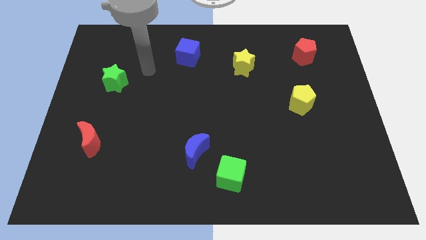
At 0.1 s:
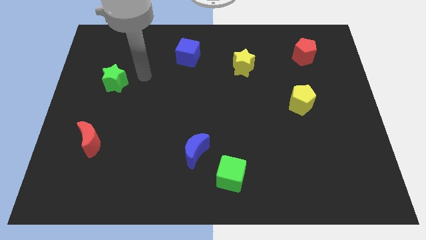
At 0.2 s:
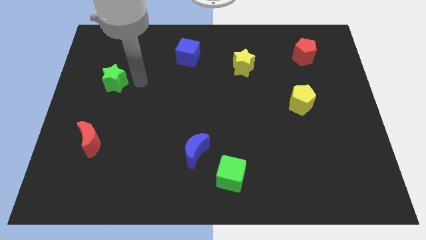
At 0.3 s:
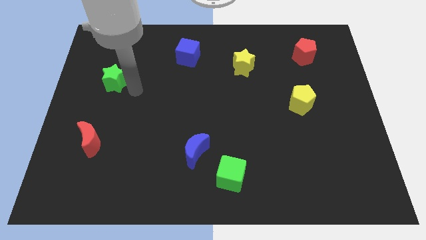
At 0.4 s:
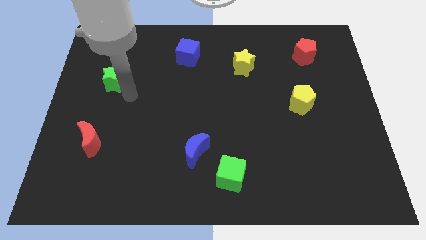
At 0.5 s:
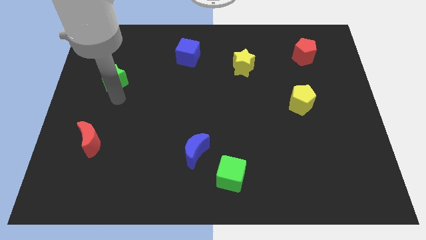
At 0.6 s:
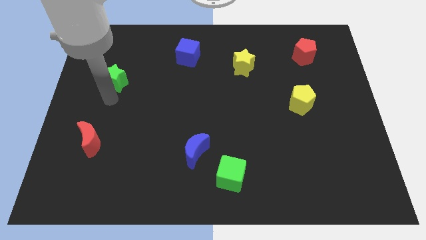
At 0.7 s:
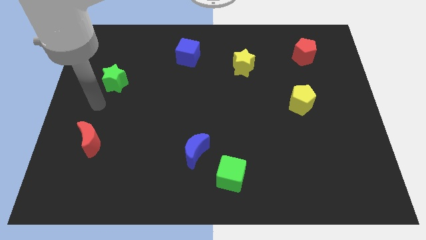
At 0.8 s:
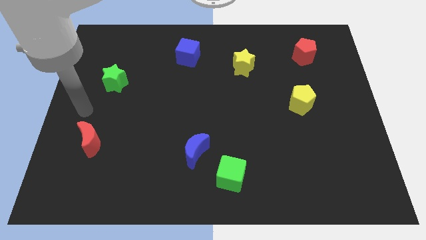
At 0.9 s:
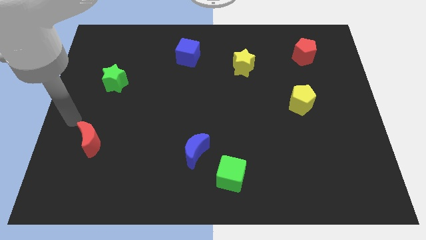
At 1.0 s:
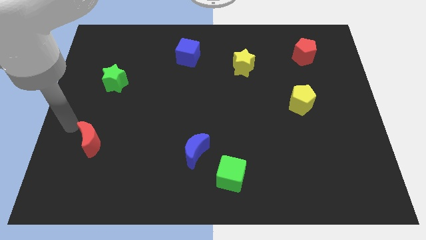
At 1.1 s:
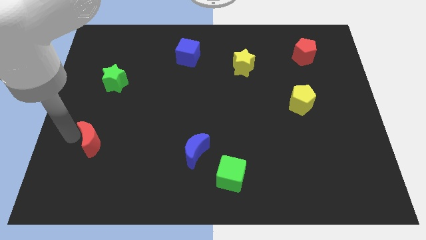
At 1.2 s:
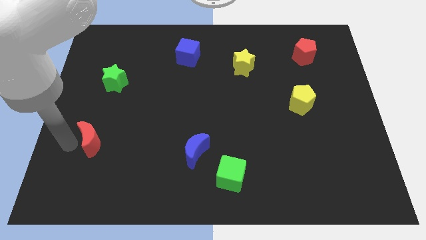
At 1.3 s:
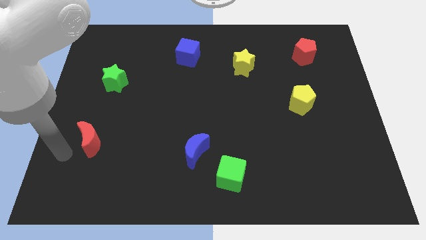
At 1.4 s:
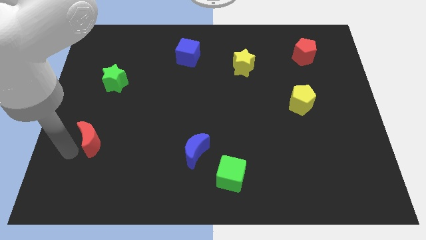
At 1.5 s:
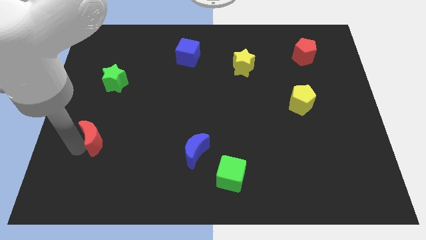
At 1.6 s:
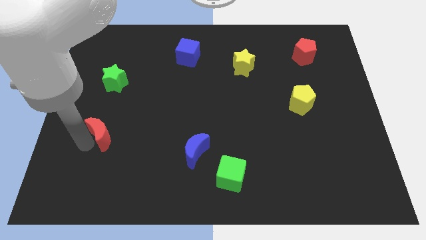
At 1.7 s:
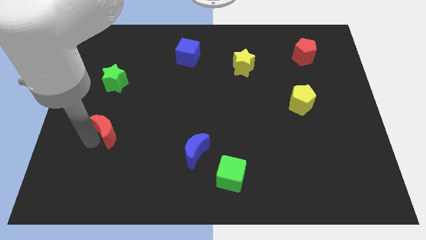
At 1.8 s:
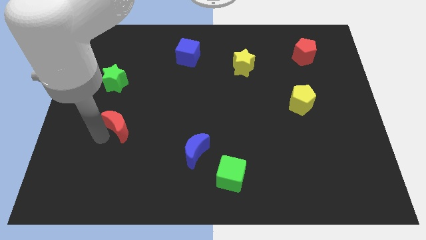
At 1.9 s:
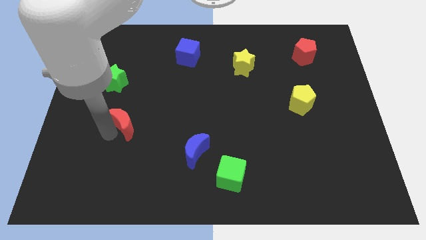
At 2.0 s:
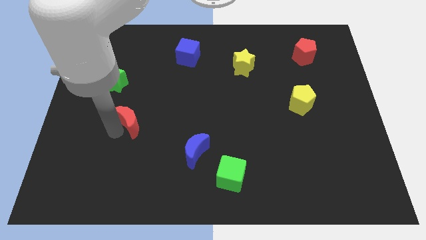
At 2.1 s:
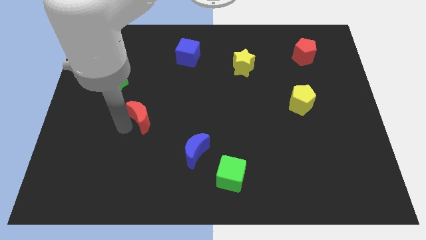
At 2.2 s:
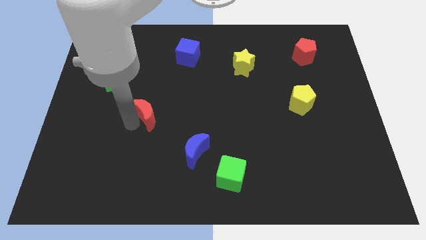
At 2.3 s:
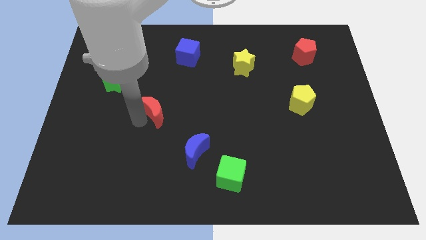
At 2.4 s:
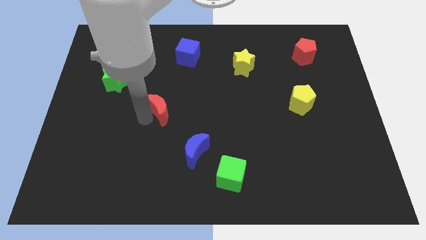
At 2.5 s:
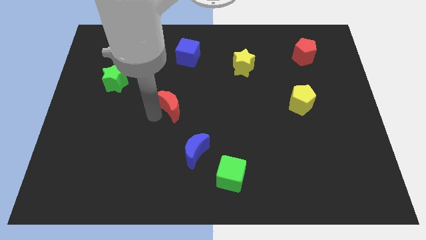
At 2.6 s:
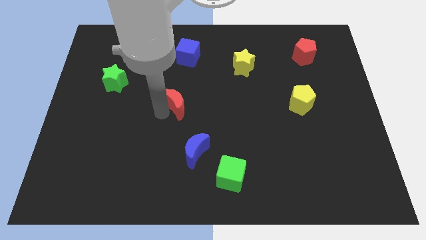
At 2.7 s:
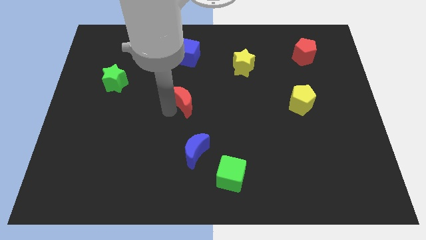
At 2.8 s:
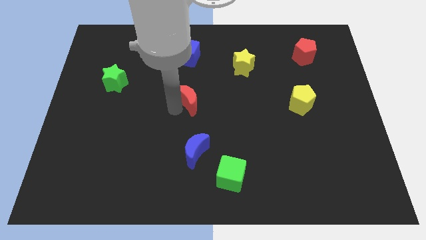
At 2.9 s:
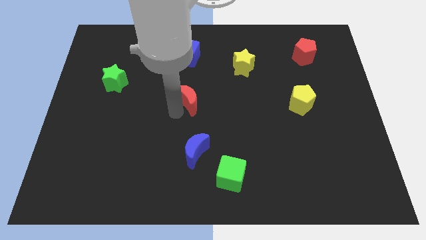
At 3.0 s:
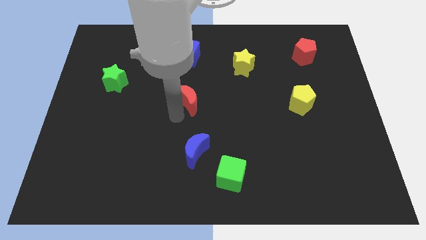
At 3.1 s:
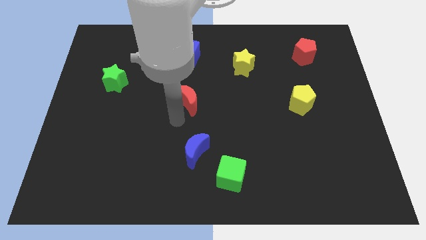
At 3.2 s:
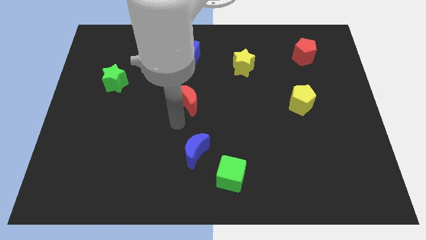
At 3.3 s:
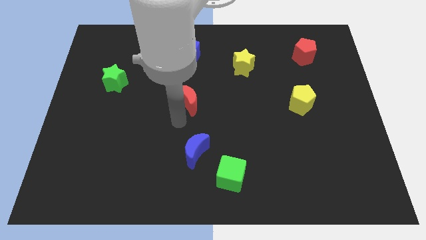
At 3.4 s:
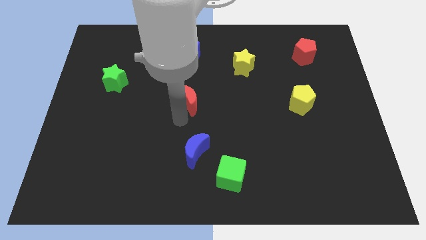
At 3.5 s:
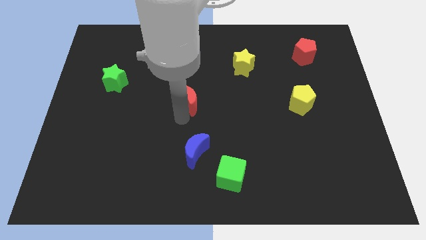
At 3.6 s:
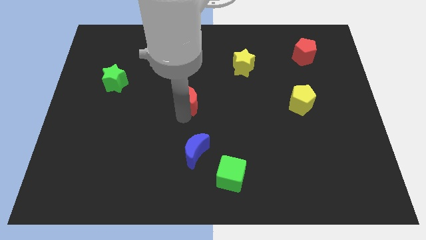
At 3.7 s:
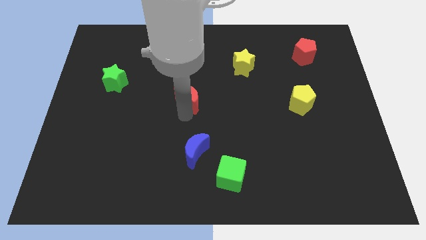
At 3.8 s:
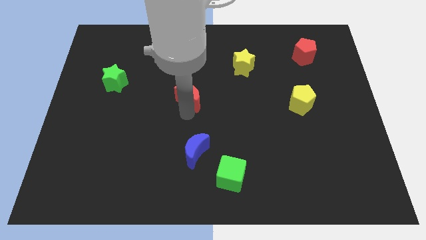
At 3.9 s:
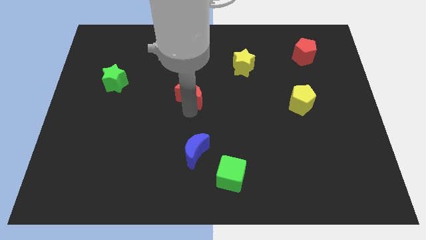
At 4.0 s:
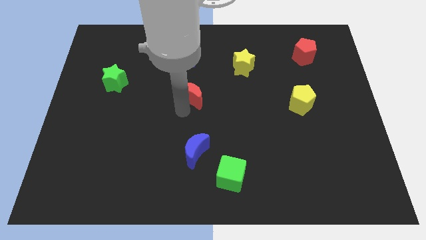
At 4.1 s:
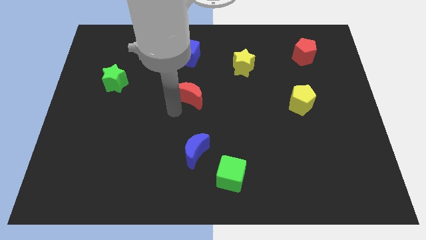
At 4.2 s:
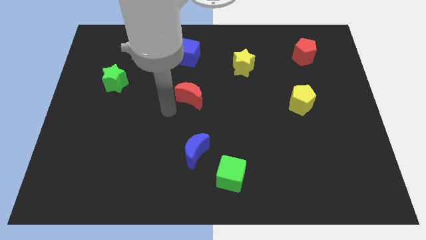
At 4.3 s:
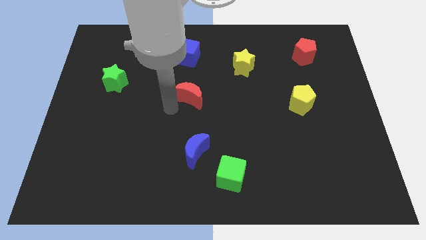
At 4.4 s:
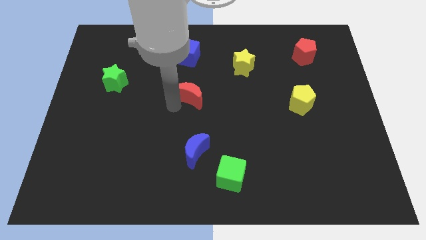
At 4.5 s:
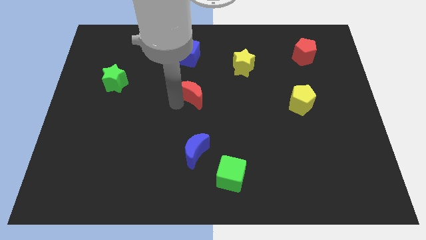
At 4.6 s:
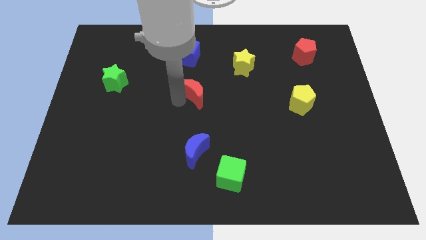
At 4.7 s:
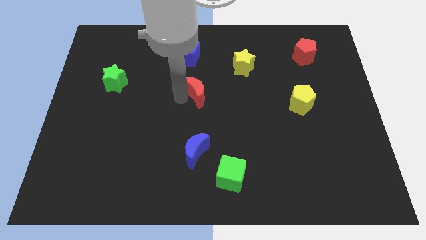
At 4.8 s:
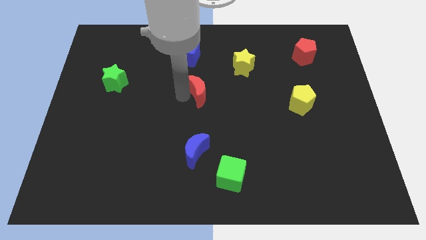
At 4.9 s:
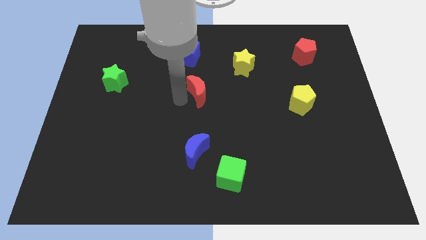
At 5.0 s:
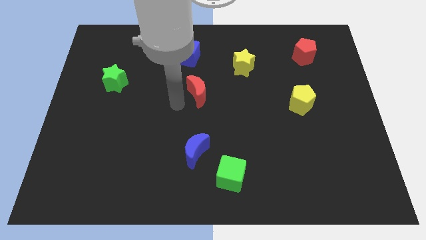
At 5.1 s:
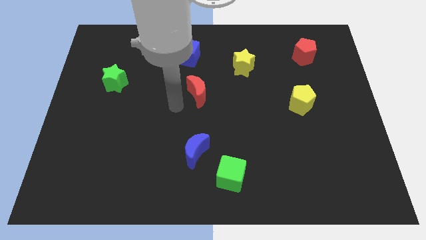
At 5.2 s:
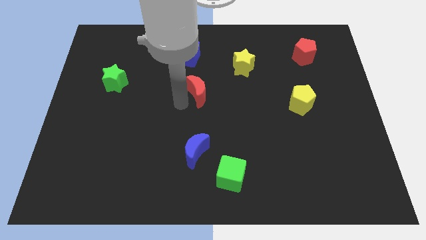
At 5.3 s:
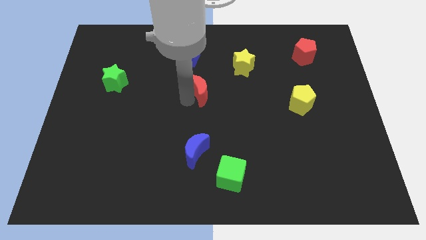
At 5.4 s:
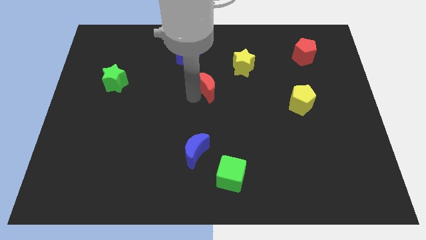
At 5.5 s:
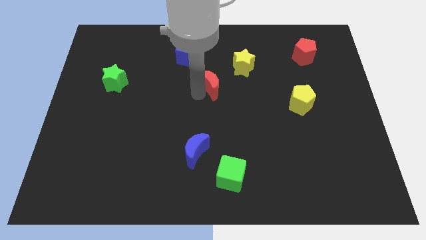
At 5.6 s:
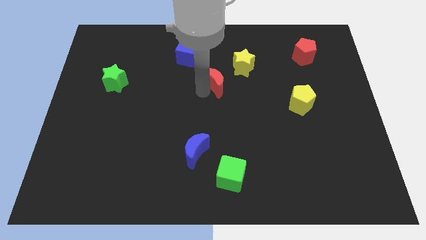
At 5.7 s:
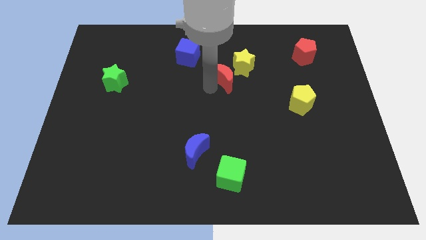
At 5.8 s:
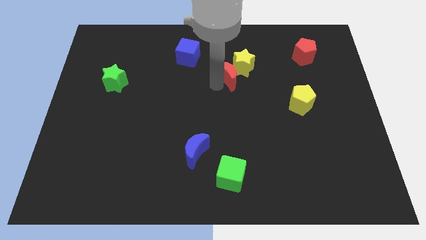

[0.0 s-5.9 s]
slide the red moon next to the yellow star

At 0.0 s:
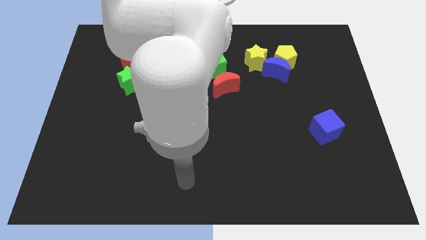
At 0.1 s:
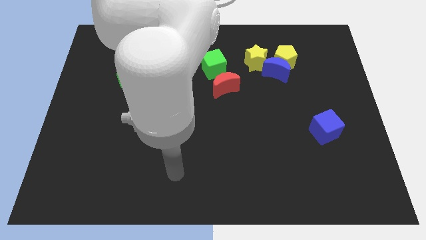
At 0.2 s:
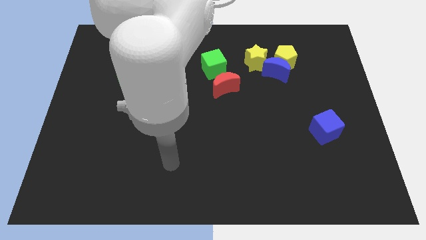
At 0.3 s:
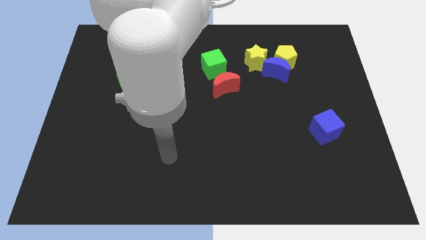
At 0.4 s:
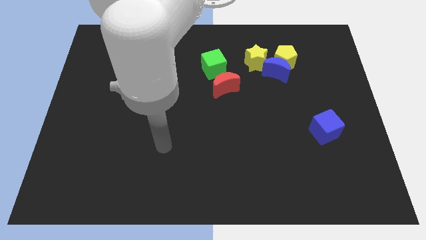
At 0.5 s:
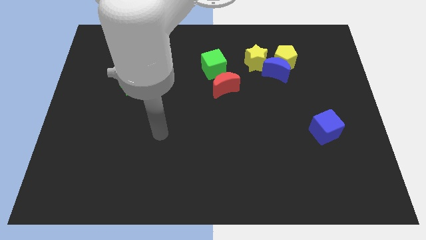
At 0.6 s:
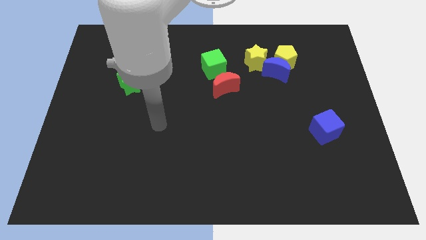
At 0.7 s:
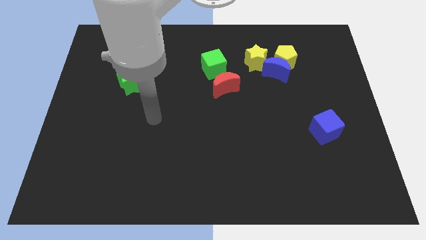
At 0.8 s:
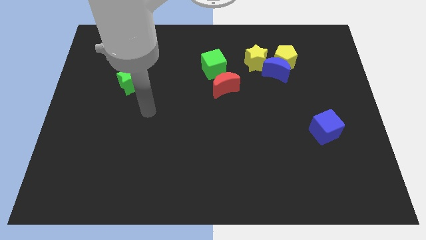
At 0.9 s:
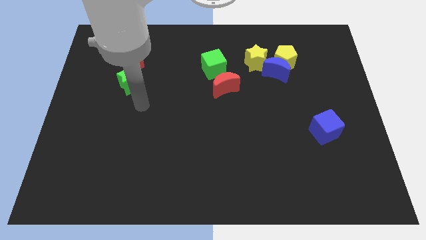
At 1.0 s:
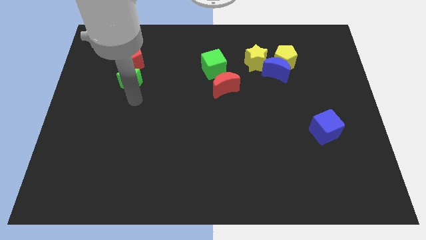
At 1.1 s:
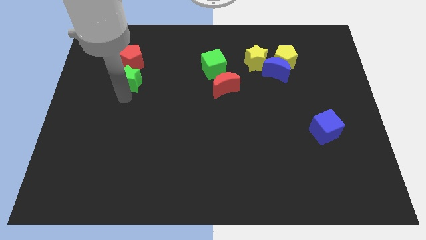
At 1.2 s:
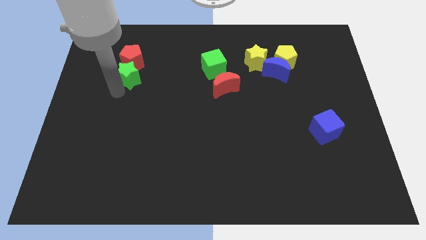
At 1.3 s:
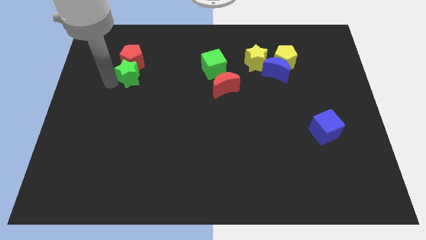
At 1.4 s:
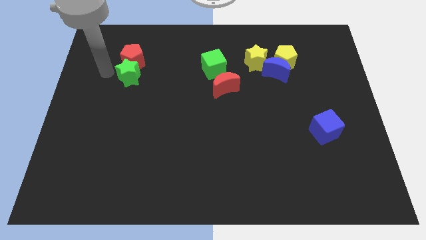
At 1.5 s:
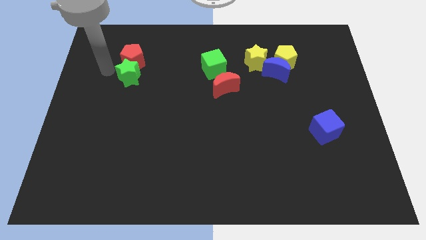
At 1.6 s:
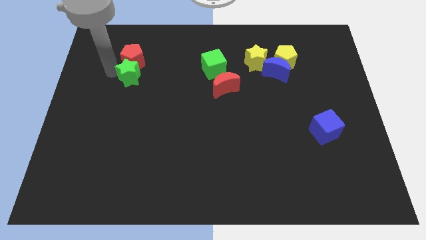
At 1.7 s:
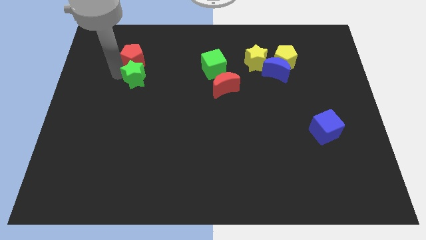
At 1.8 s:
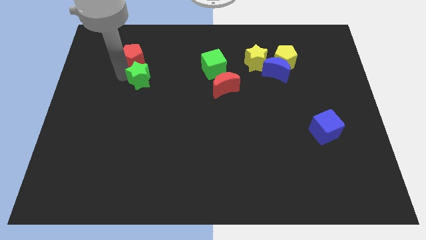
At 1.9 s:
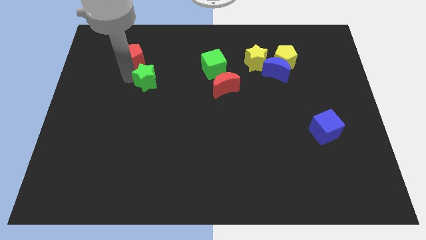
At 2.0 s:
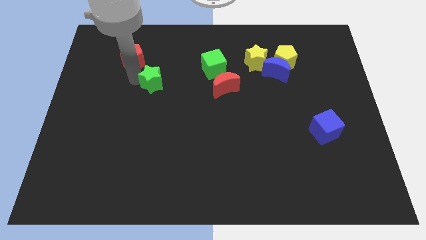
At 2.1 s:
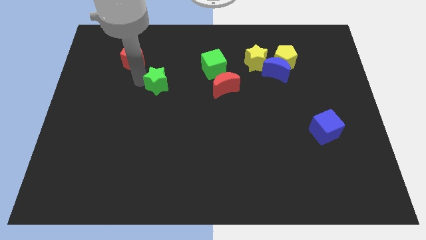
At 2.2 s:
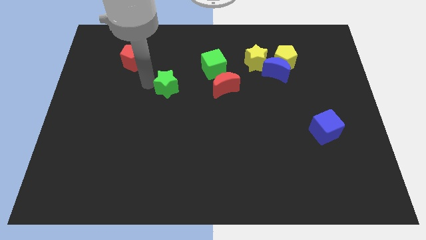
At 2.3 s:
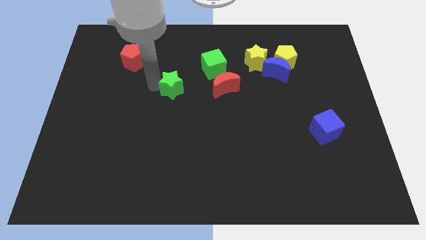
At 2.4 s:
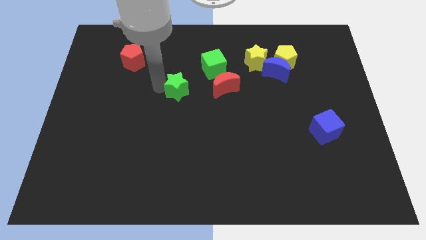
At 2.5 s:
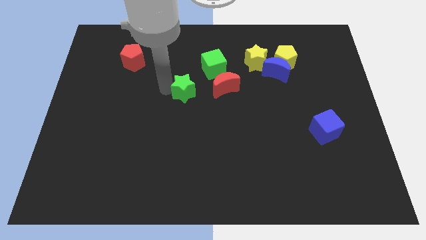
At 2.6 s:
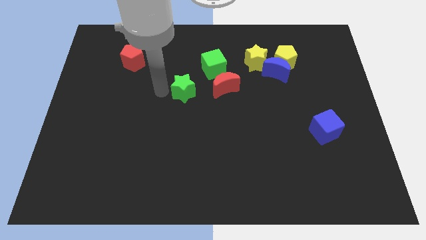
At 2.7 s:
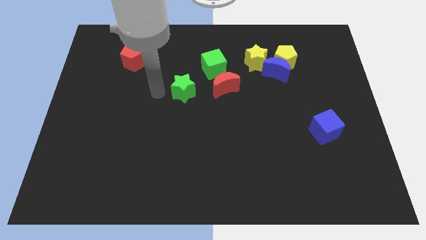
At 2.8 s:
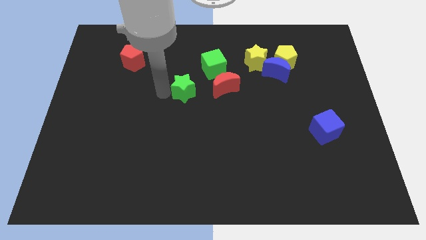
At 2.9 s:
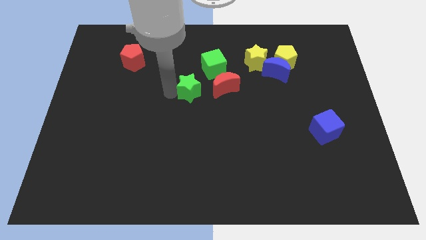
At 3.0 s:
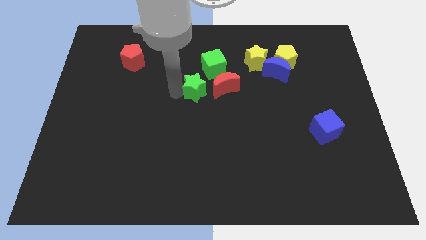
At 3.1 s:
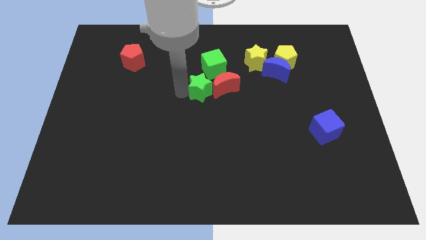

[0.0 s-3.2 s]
slide the green star towards the red moon
